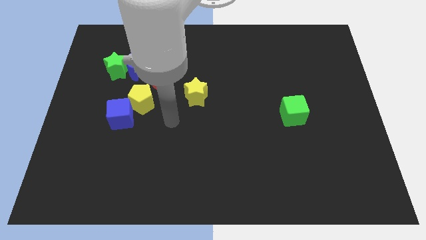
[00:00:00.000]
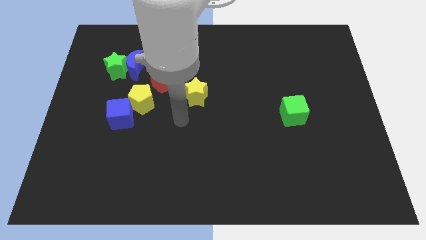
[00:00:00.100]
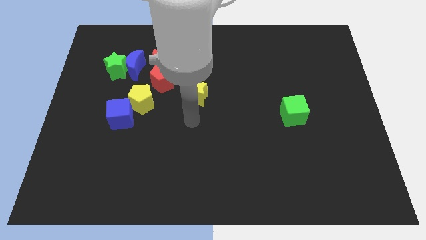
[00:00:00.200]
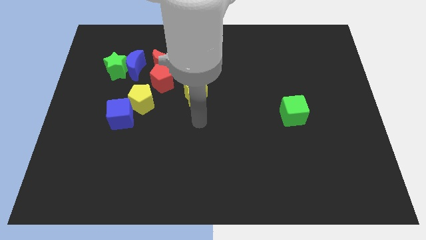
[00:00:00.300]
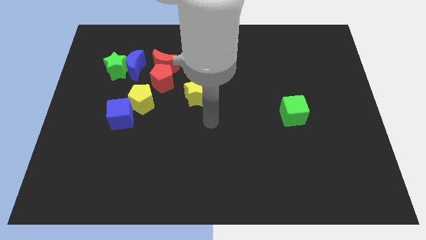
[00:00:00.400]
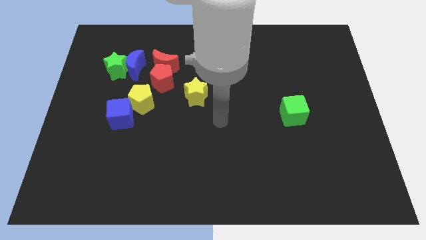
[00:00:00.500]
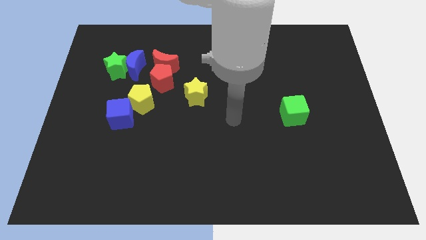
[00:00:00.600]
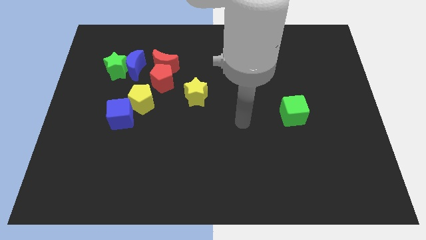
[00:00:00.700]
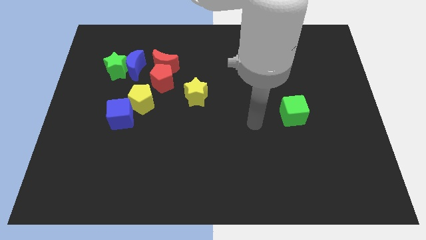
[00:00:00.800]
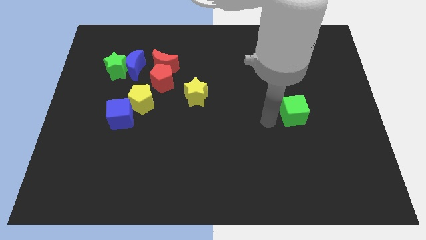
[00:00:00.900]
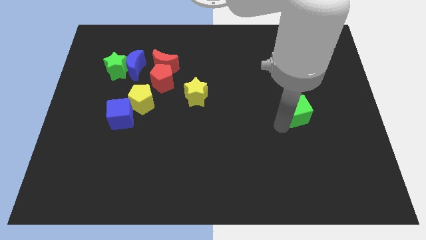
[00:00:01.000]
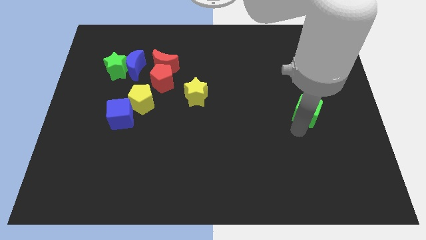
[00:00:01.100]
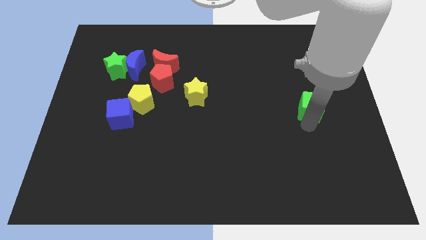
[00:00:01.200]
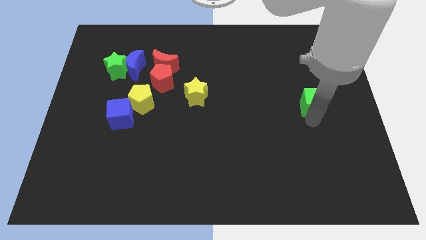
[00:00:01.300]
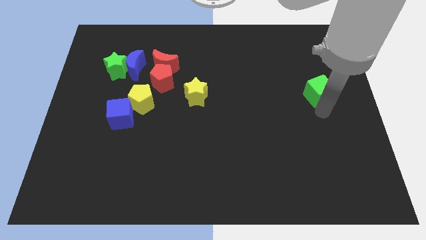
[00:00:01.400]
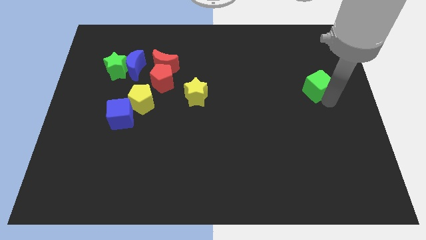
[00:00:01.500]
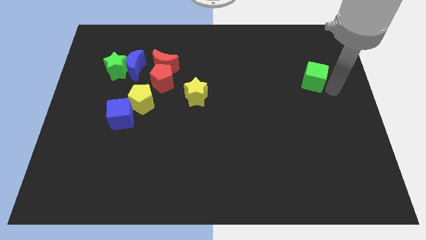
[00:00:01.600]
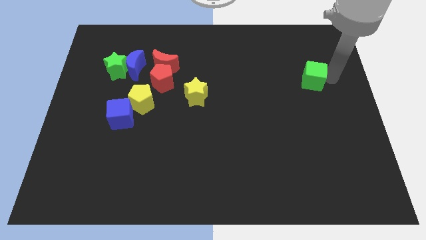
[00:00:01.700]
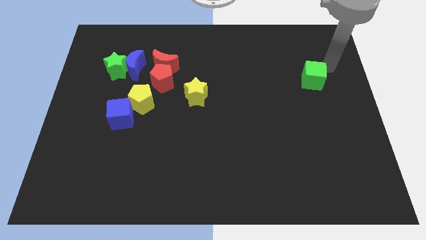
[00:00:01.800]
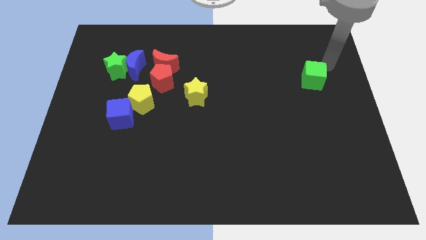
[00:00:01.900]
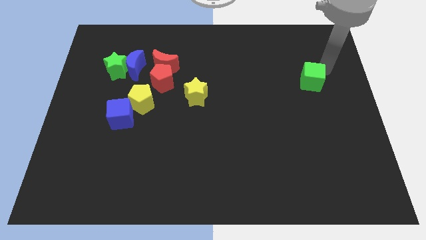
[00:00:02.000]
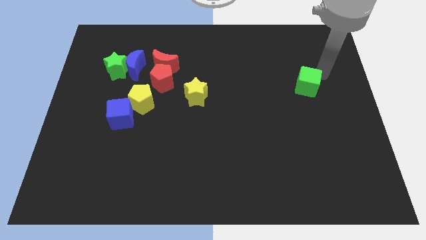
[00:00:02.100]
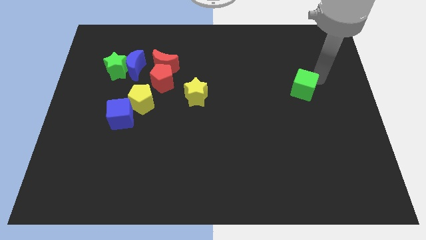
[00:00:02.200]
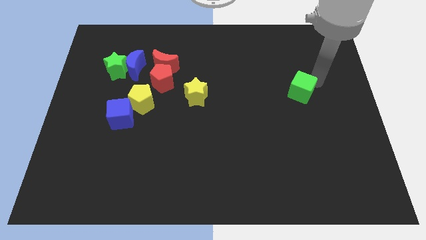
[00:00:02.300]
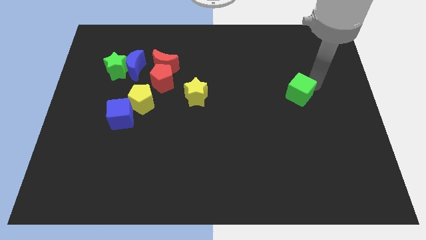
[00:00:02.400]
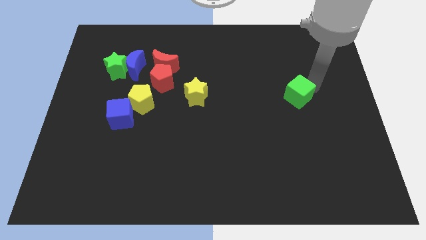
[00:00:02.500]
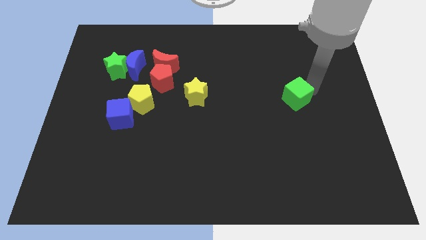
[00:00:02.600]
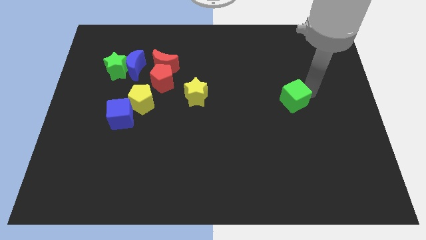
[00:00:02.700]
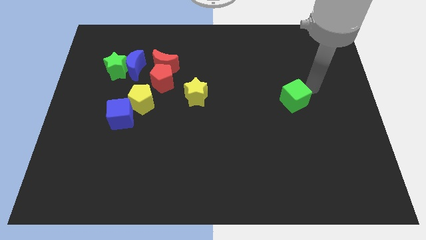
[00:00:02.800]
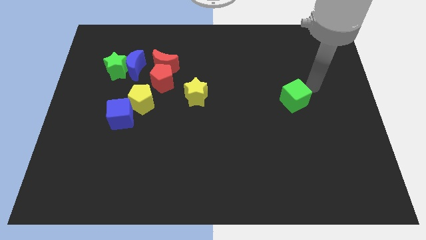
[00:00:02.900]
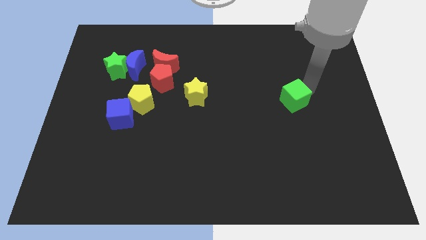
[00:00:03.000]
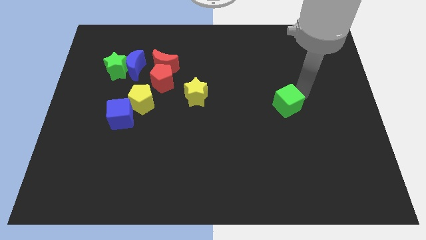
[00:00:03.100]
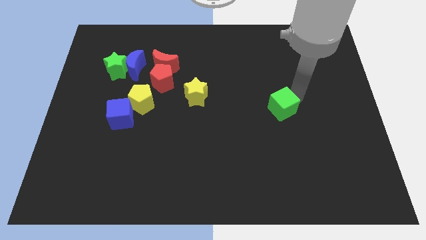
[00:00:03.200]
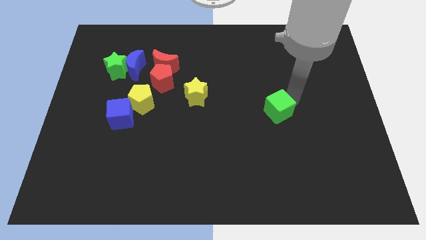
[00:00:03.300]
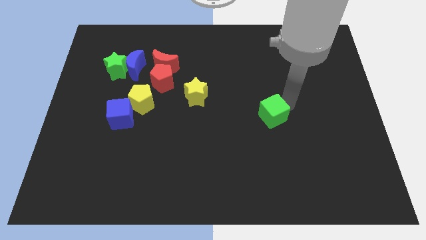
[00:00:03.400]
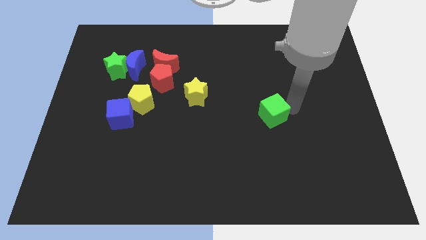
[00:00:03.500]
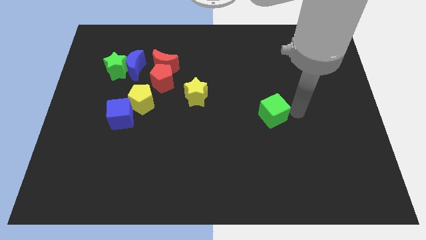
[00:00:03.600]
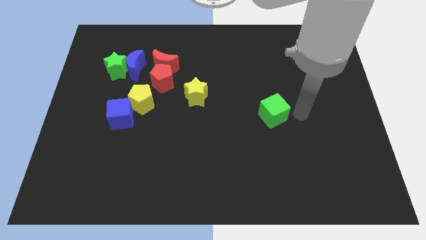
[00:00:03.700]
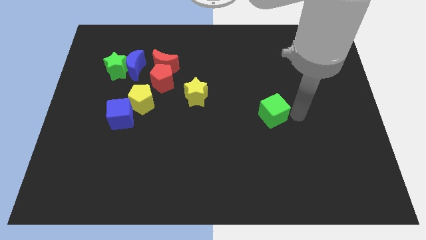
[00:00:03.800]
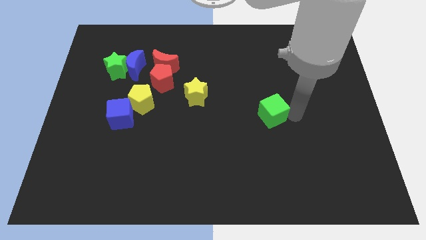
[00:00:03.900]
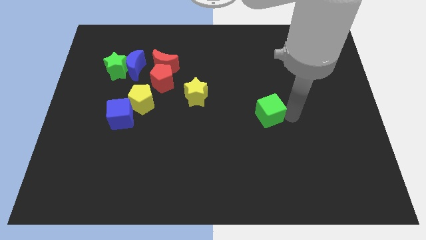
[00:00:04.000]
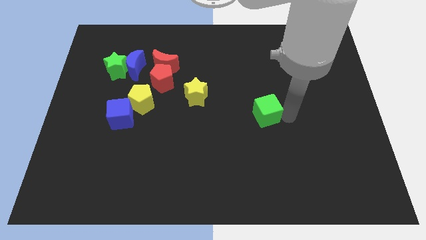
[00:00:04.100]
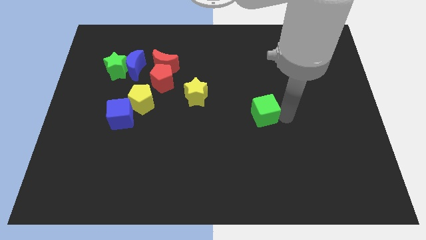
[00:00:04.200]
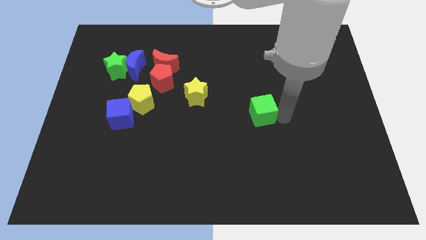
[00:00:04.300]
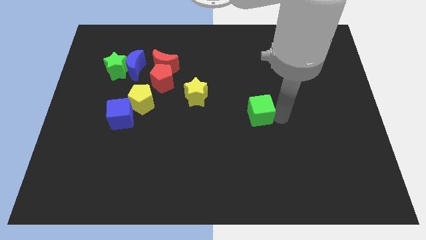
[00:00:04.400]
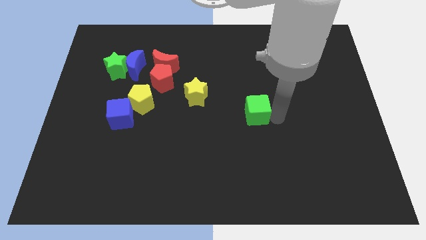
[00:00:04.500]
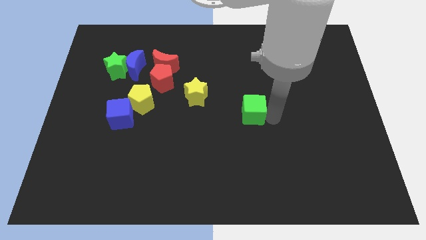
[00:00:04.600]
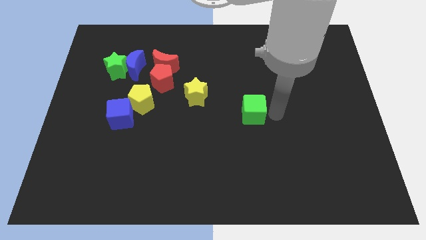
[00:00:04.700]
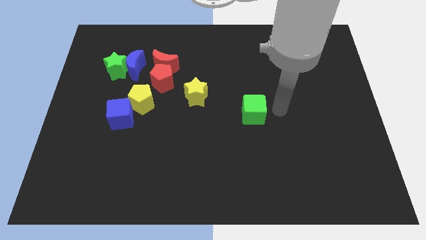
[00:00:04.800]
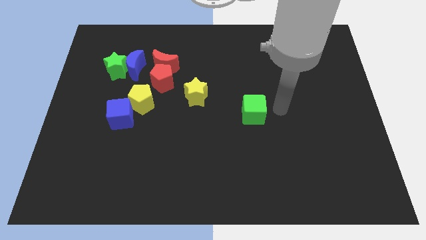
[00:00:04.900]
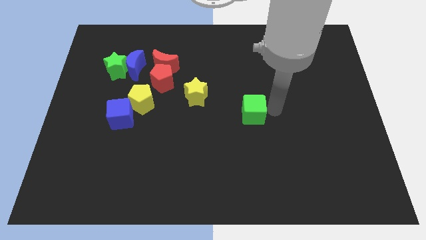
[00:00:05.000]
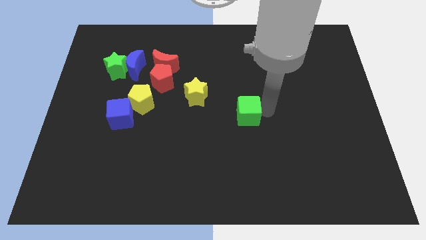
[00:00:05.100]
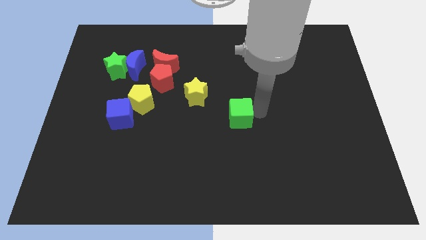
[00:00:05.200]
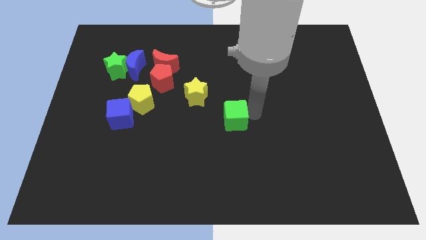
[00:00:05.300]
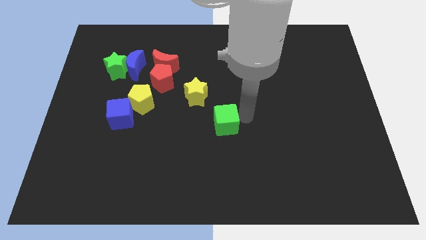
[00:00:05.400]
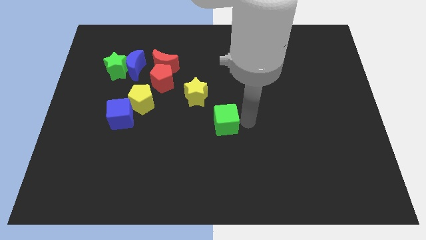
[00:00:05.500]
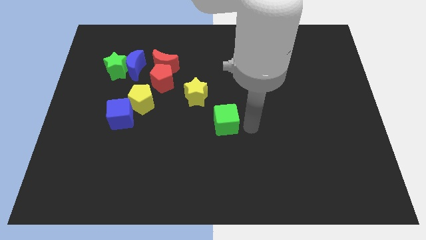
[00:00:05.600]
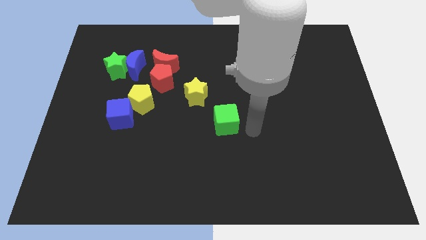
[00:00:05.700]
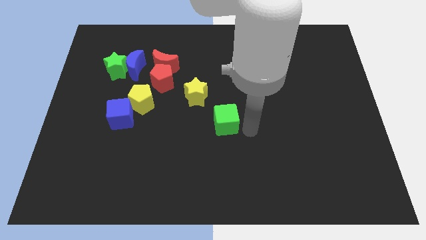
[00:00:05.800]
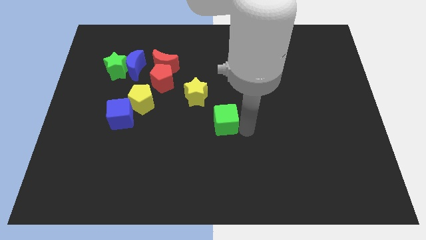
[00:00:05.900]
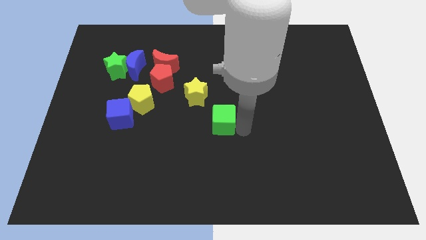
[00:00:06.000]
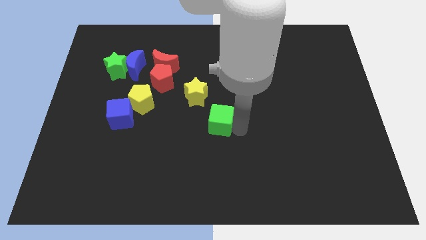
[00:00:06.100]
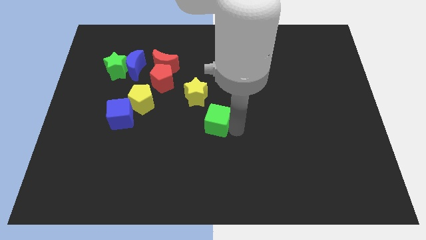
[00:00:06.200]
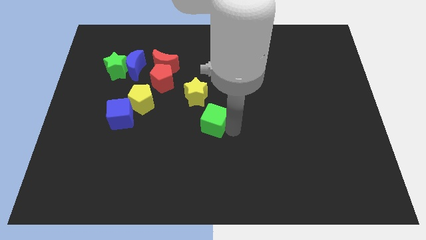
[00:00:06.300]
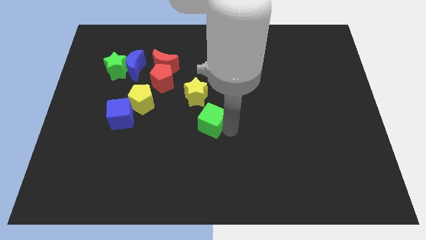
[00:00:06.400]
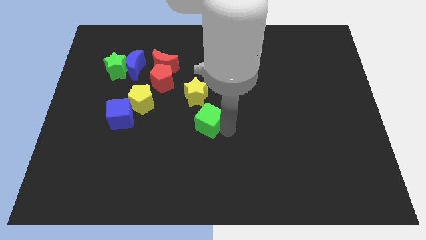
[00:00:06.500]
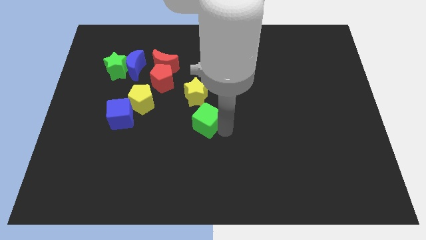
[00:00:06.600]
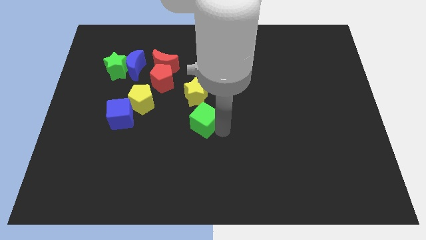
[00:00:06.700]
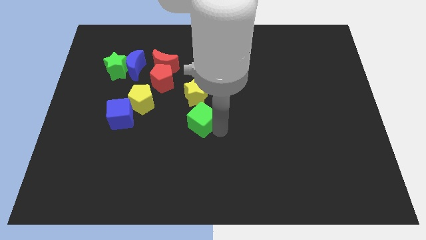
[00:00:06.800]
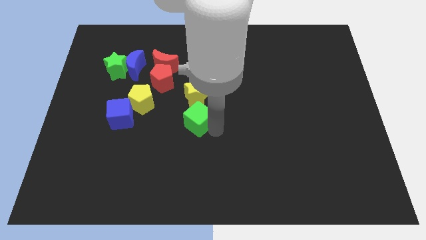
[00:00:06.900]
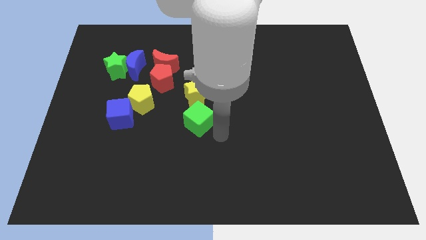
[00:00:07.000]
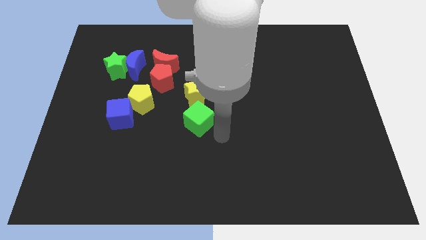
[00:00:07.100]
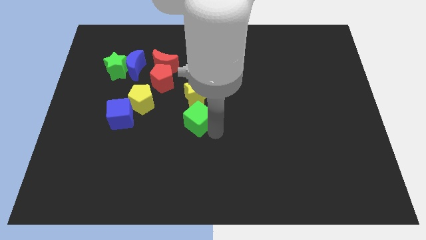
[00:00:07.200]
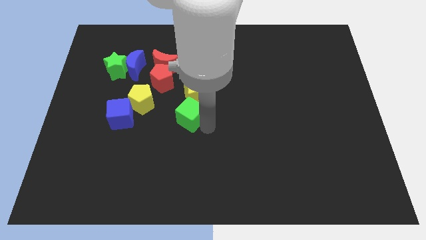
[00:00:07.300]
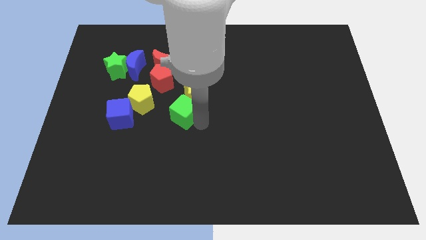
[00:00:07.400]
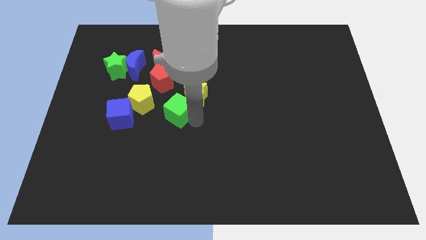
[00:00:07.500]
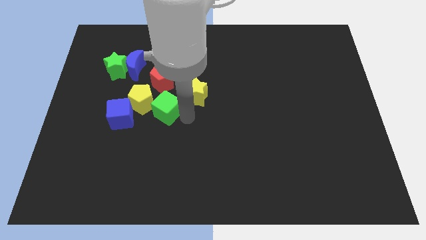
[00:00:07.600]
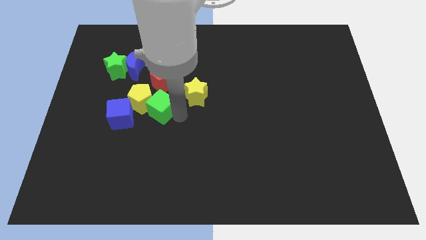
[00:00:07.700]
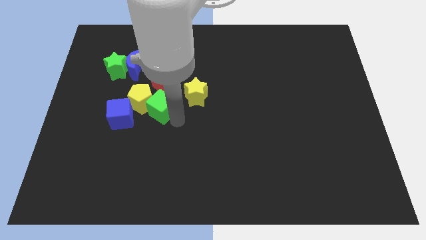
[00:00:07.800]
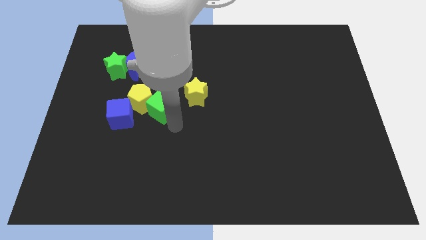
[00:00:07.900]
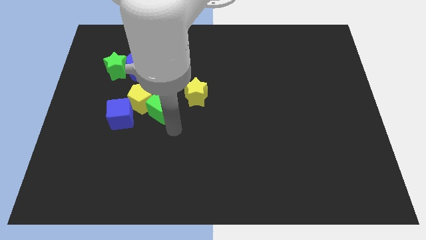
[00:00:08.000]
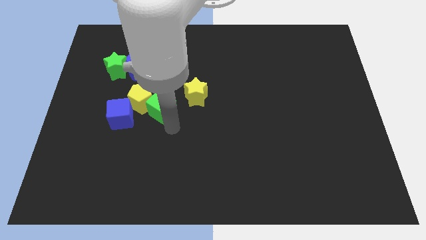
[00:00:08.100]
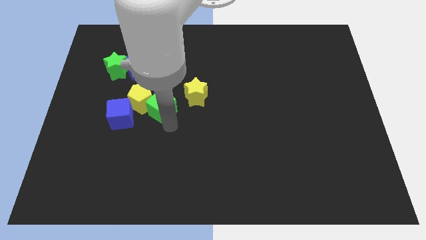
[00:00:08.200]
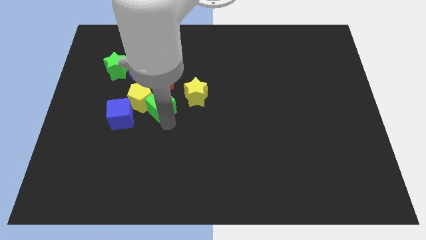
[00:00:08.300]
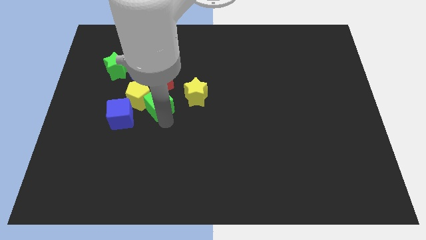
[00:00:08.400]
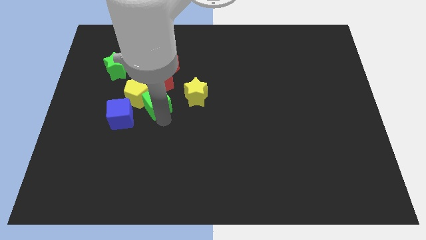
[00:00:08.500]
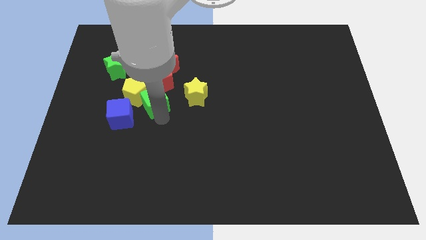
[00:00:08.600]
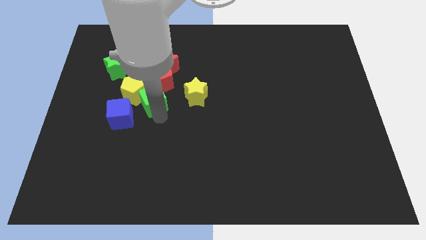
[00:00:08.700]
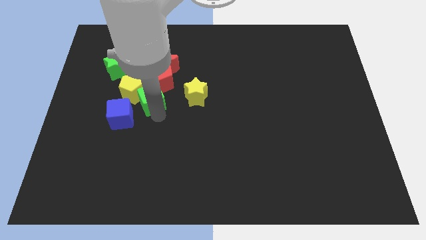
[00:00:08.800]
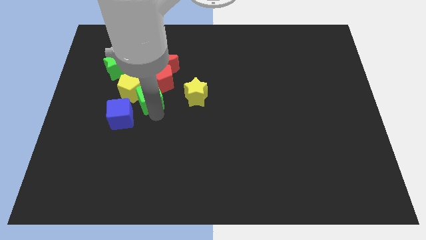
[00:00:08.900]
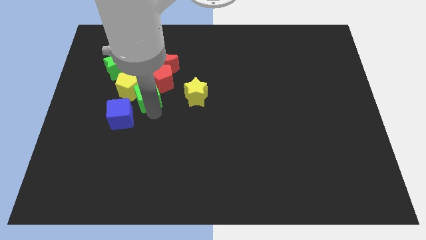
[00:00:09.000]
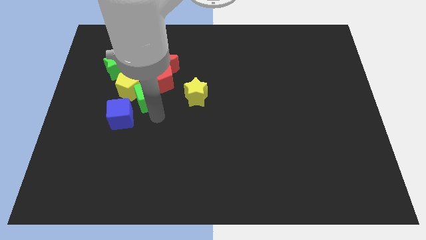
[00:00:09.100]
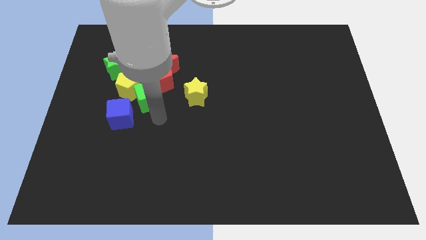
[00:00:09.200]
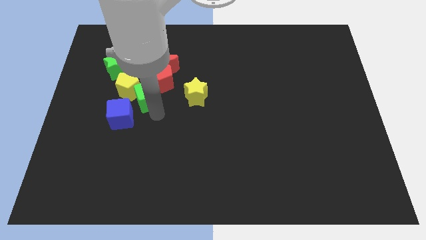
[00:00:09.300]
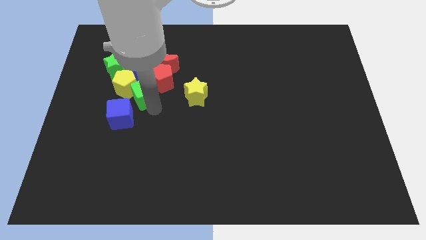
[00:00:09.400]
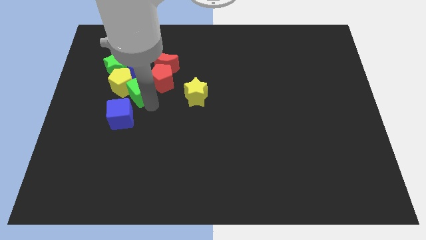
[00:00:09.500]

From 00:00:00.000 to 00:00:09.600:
push the green cube just left of the red pentagon
